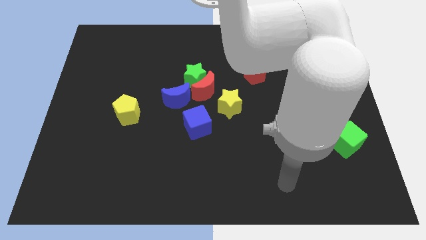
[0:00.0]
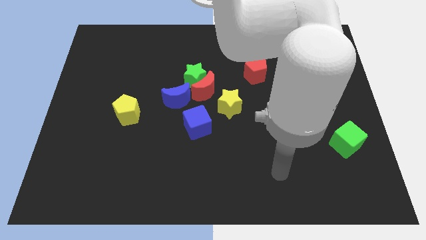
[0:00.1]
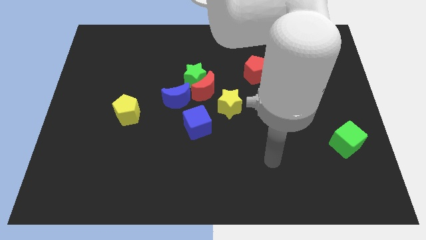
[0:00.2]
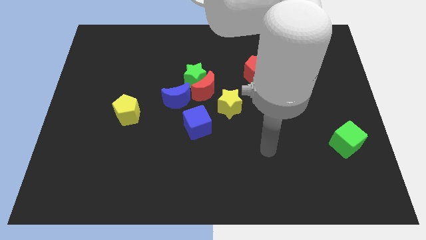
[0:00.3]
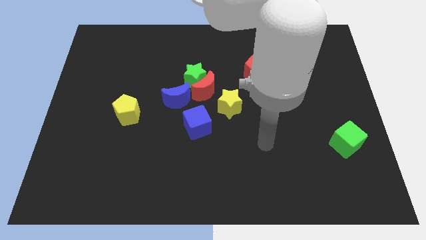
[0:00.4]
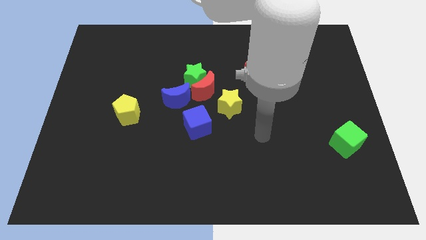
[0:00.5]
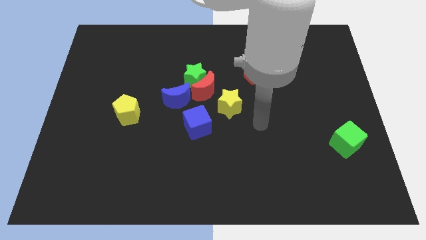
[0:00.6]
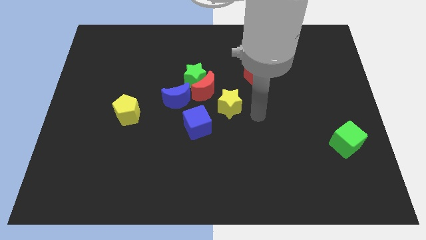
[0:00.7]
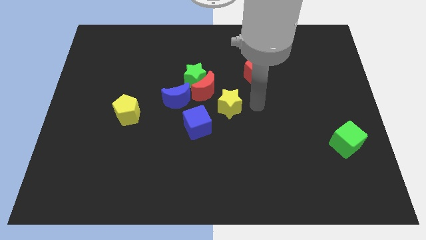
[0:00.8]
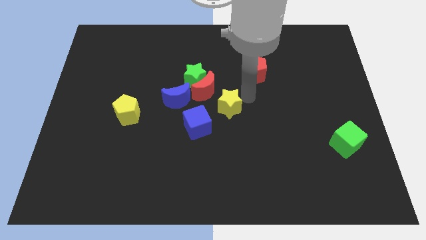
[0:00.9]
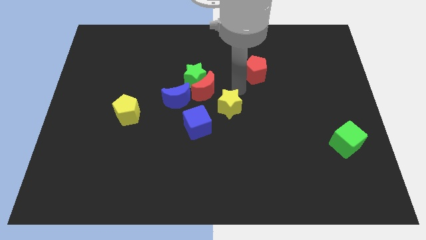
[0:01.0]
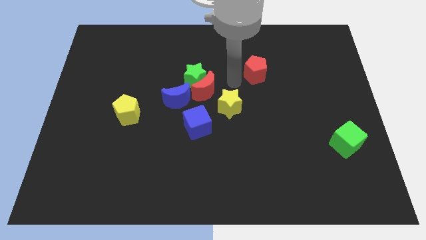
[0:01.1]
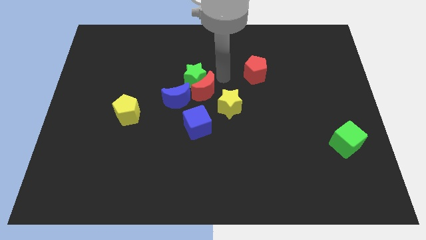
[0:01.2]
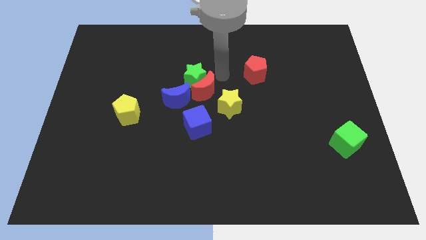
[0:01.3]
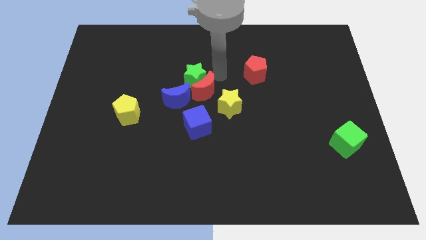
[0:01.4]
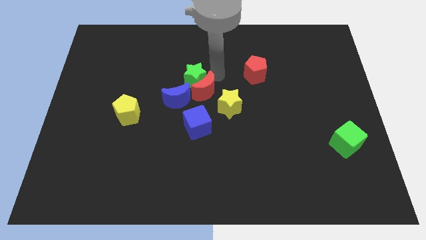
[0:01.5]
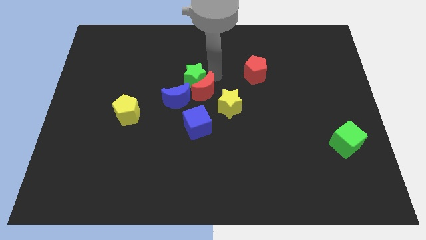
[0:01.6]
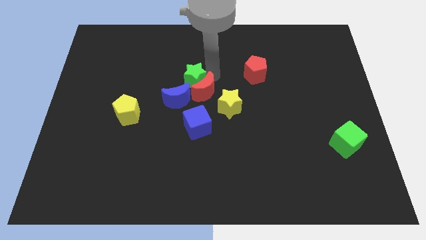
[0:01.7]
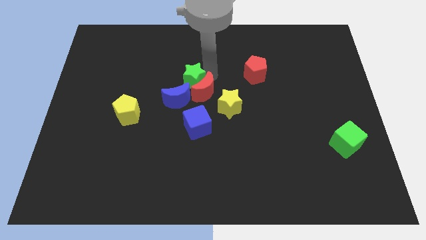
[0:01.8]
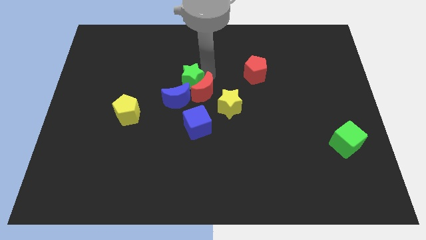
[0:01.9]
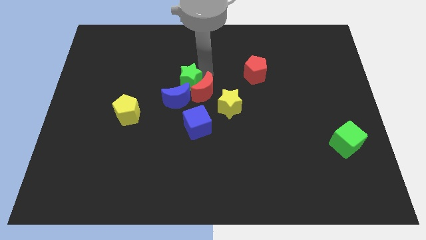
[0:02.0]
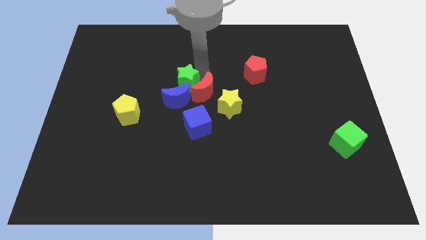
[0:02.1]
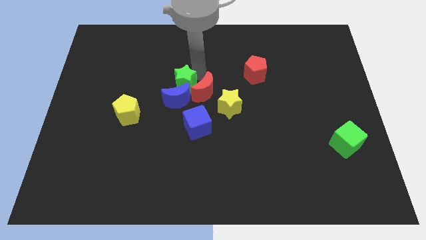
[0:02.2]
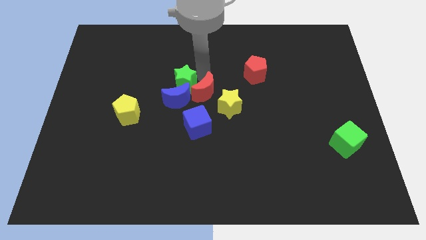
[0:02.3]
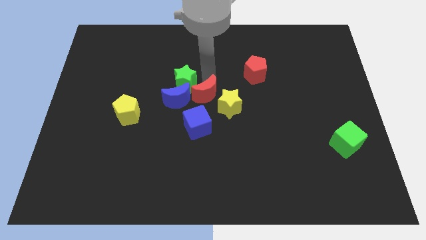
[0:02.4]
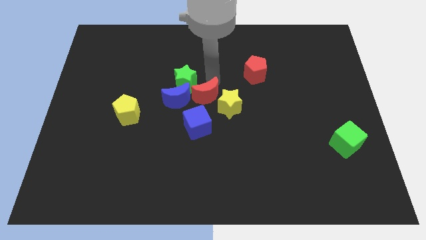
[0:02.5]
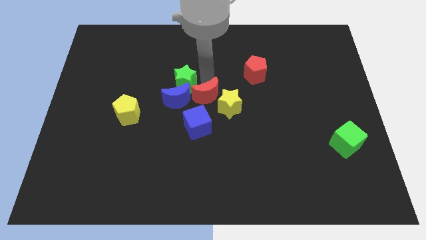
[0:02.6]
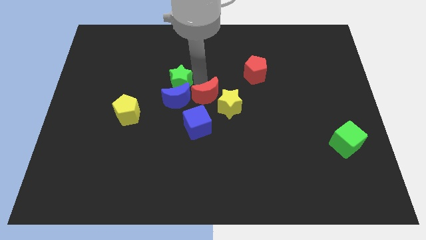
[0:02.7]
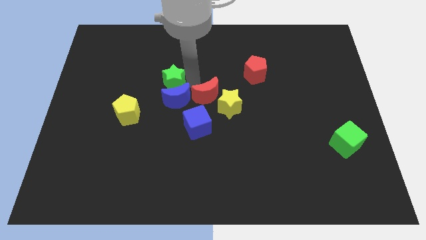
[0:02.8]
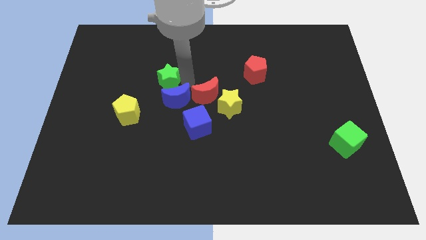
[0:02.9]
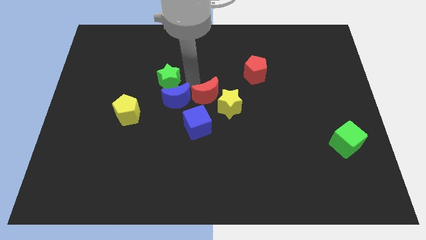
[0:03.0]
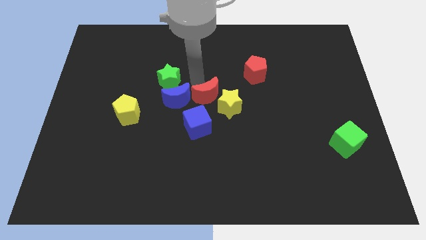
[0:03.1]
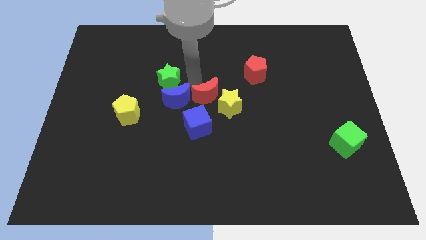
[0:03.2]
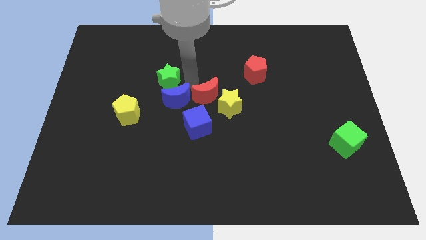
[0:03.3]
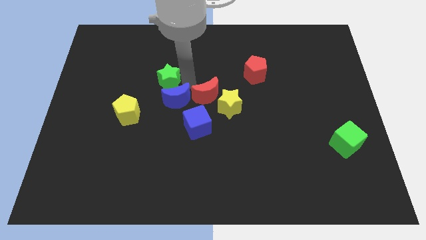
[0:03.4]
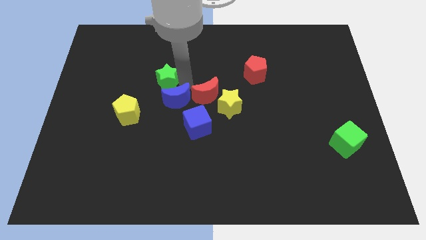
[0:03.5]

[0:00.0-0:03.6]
slightly slide the green star to the left

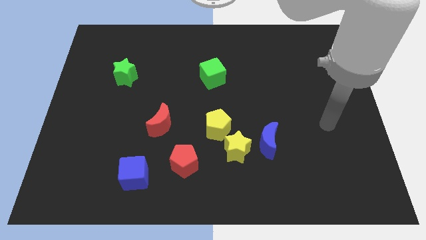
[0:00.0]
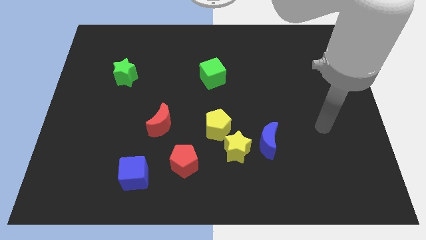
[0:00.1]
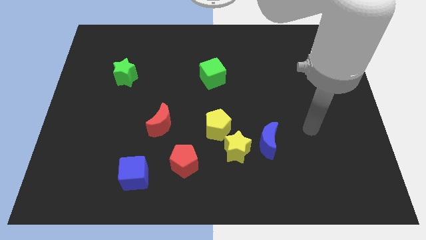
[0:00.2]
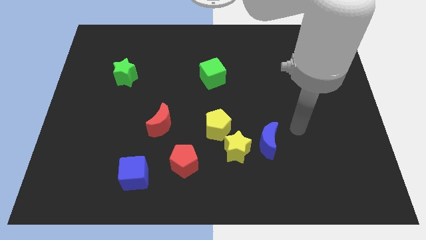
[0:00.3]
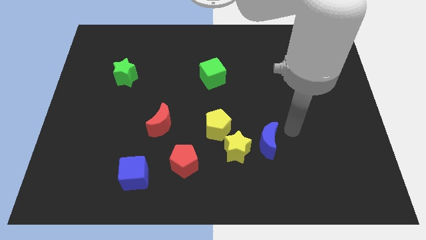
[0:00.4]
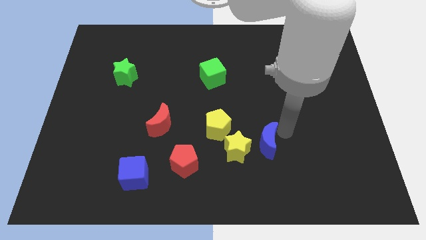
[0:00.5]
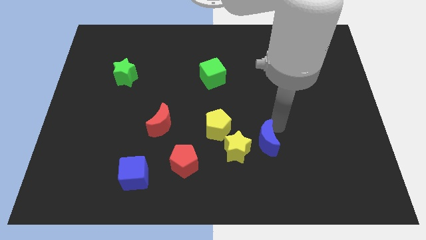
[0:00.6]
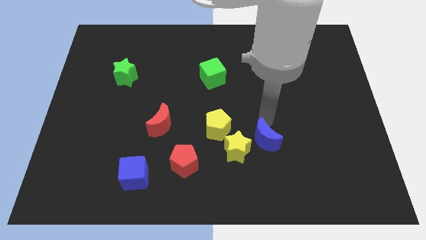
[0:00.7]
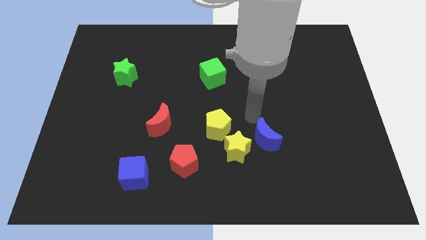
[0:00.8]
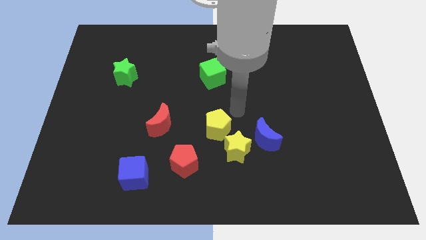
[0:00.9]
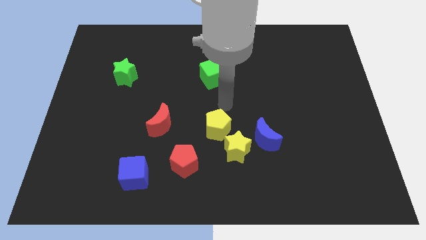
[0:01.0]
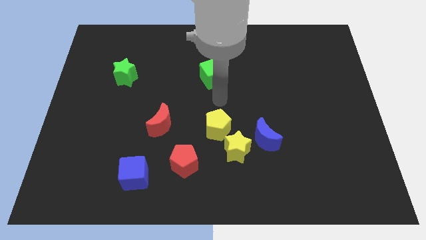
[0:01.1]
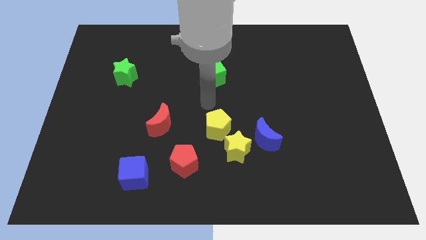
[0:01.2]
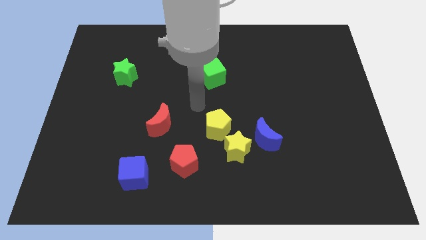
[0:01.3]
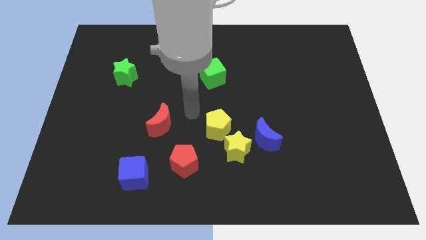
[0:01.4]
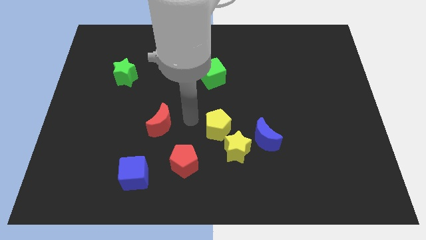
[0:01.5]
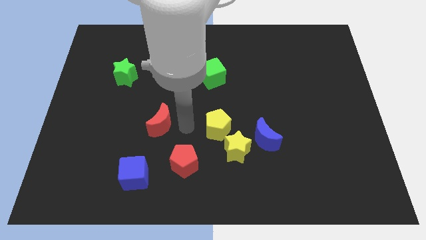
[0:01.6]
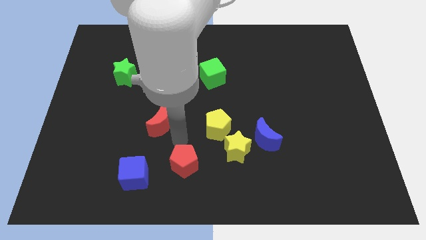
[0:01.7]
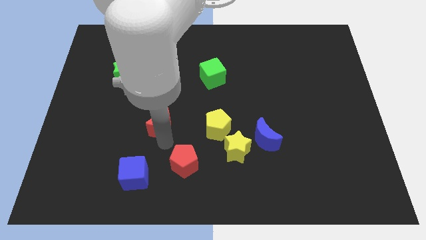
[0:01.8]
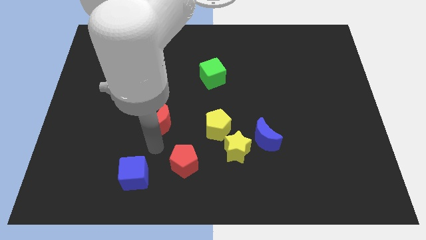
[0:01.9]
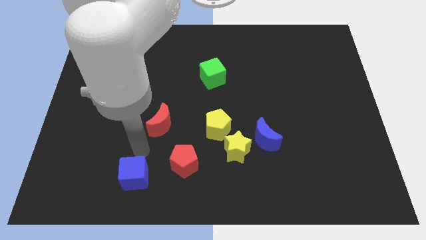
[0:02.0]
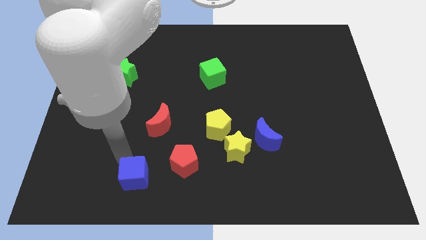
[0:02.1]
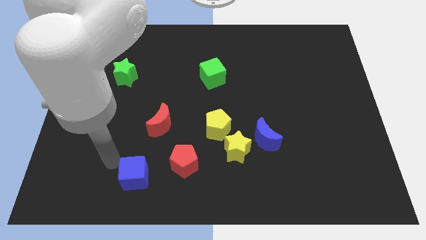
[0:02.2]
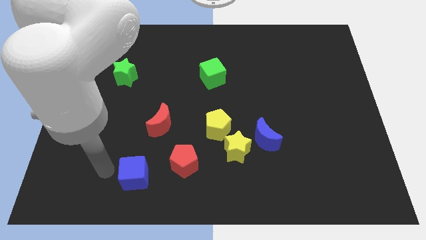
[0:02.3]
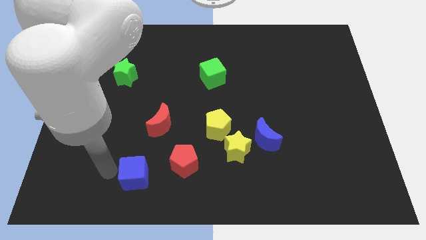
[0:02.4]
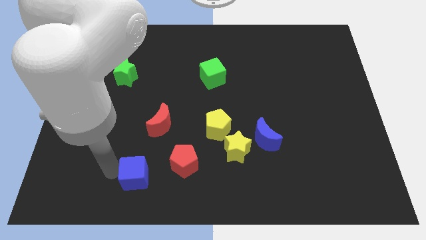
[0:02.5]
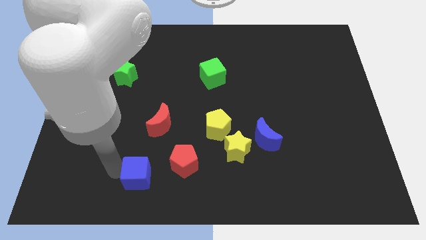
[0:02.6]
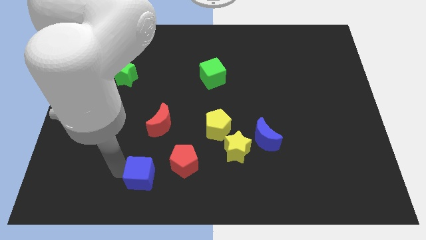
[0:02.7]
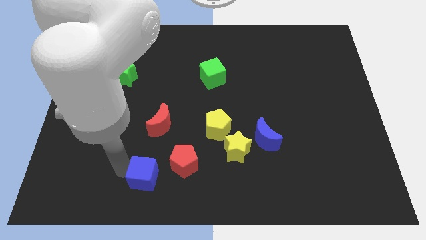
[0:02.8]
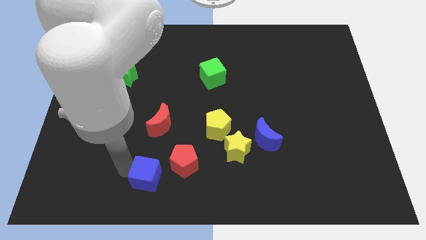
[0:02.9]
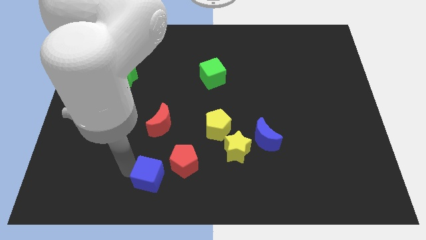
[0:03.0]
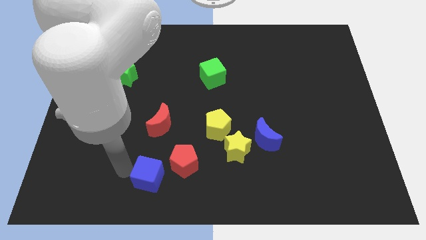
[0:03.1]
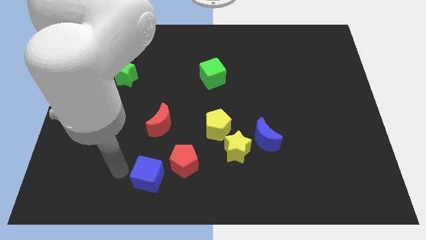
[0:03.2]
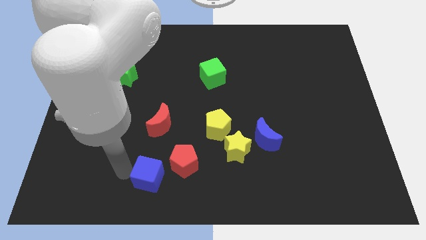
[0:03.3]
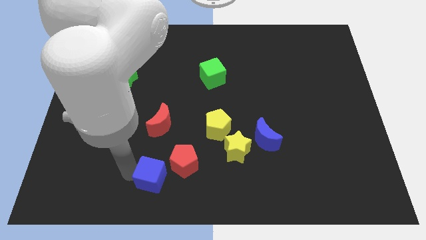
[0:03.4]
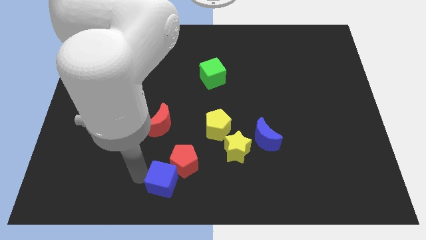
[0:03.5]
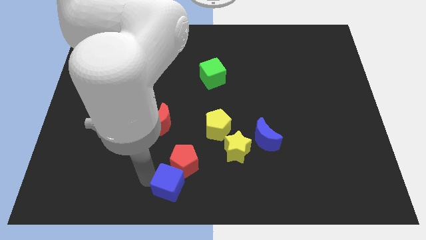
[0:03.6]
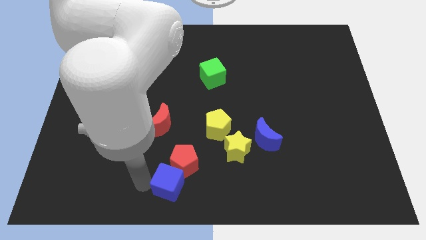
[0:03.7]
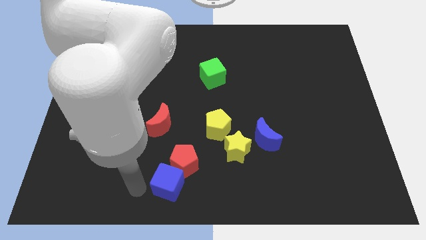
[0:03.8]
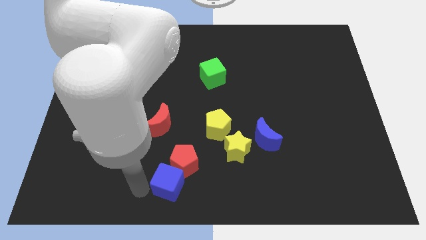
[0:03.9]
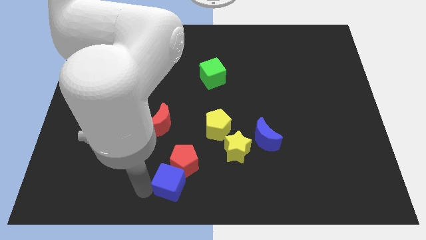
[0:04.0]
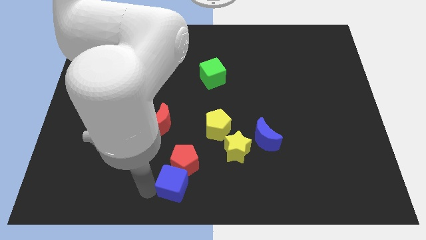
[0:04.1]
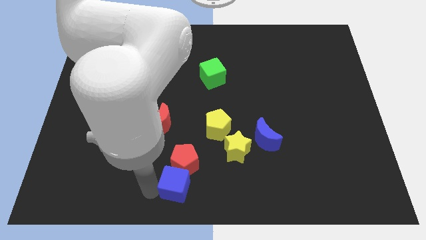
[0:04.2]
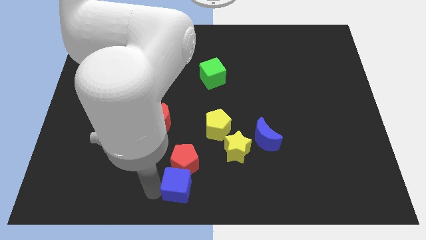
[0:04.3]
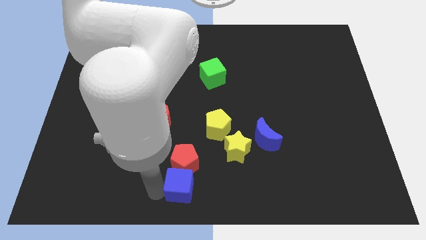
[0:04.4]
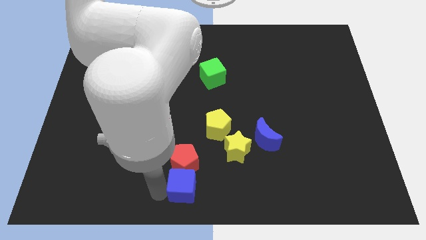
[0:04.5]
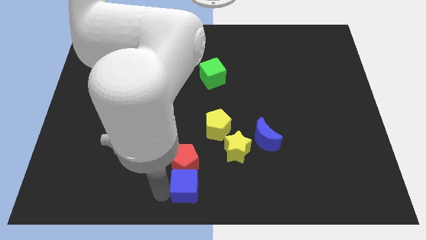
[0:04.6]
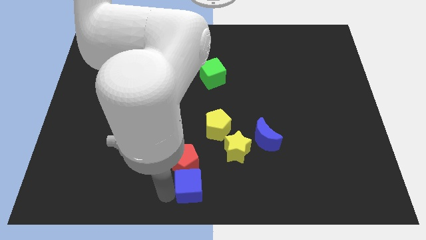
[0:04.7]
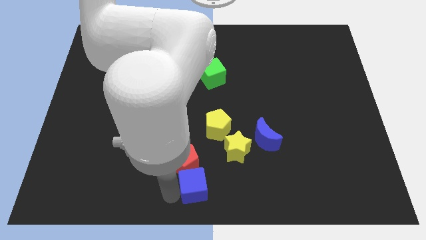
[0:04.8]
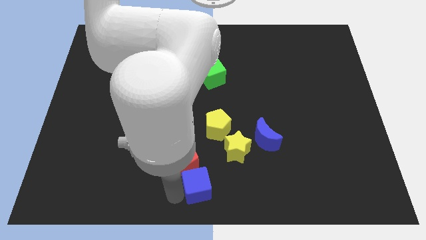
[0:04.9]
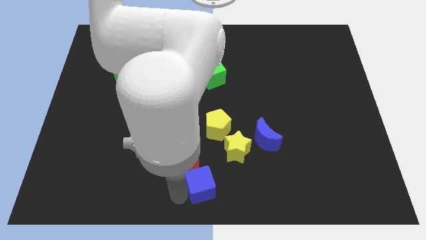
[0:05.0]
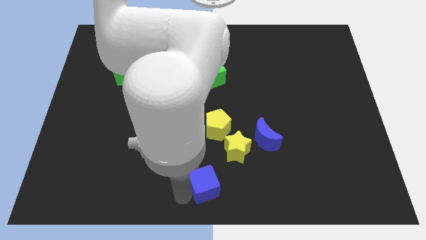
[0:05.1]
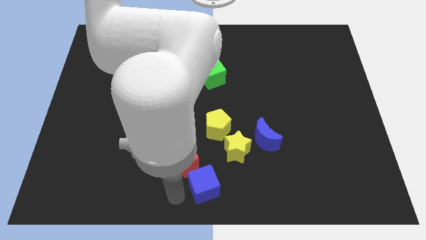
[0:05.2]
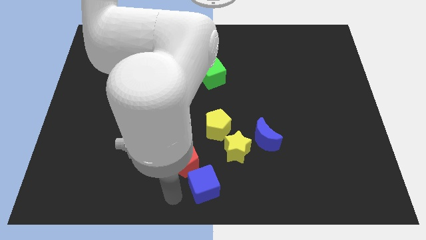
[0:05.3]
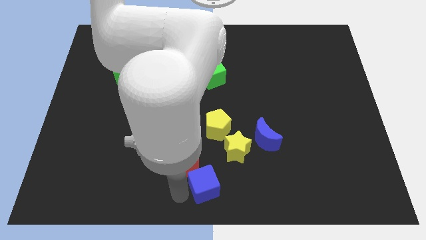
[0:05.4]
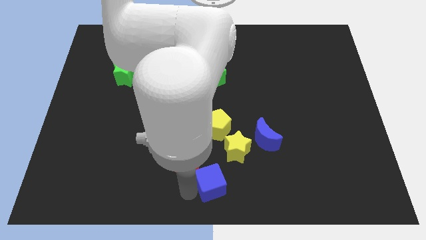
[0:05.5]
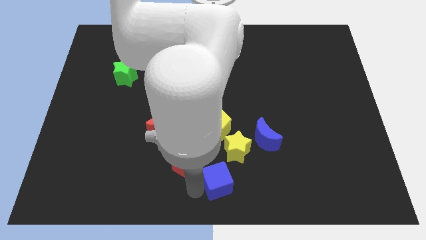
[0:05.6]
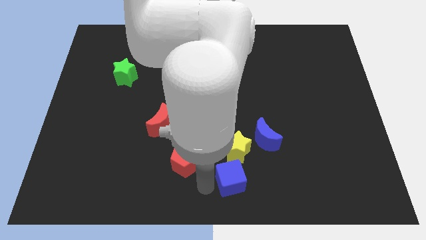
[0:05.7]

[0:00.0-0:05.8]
move the blue cube to the right
